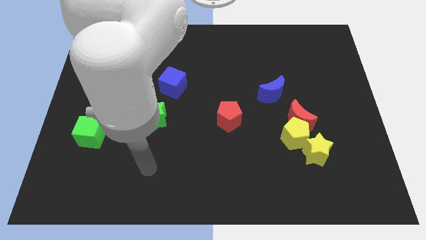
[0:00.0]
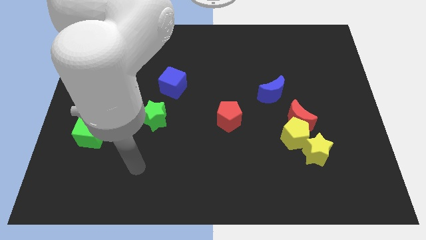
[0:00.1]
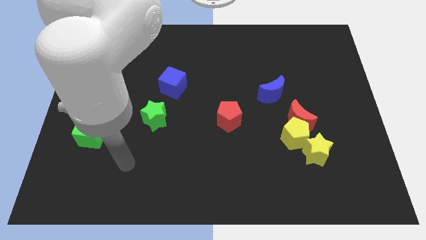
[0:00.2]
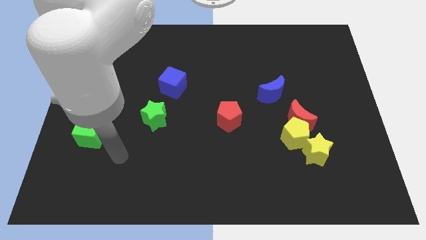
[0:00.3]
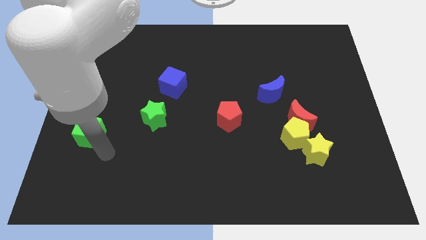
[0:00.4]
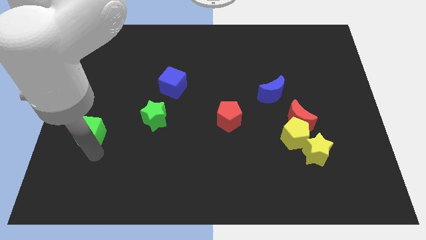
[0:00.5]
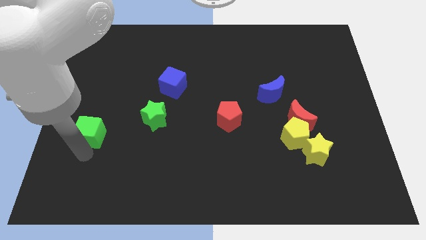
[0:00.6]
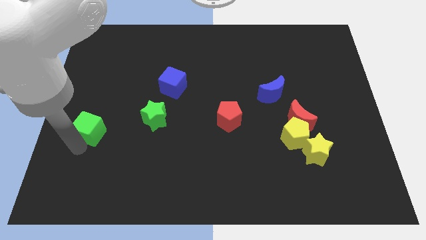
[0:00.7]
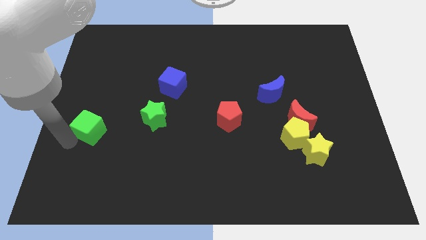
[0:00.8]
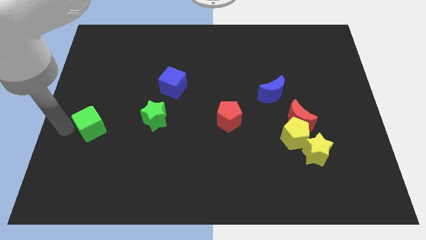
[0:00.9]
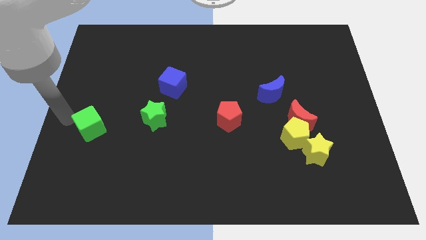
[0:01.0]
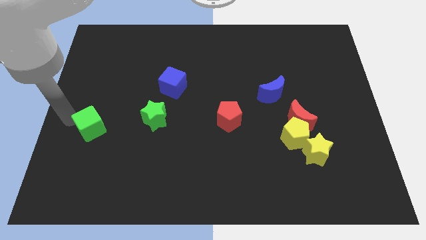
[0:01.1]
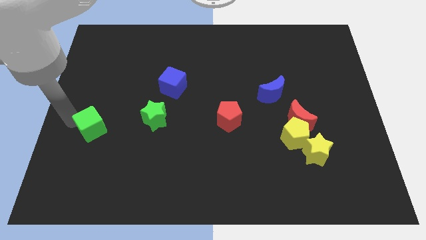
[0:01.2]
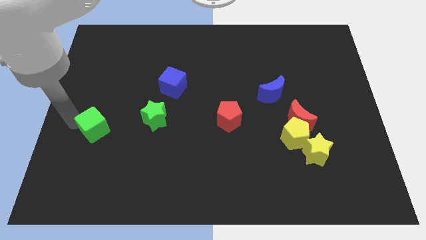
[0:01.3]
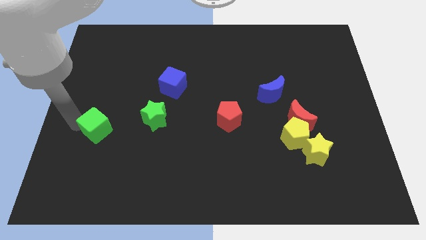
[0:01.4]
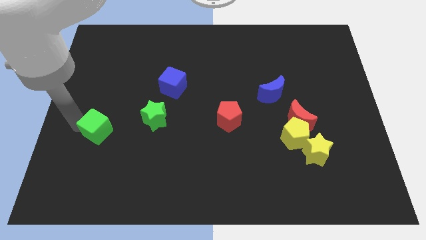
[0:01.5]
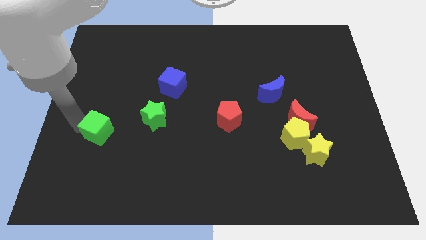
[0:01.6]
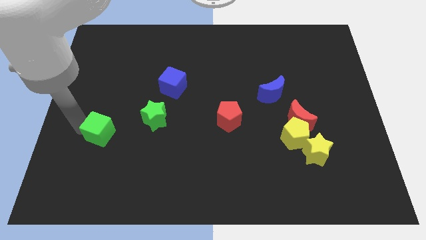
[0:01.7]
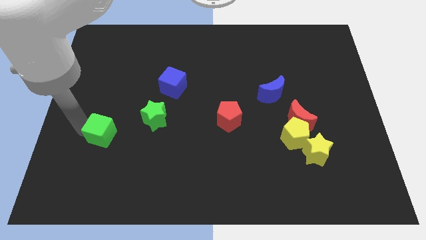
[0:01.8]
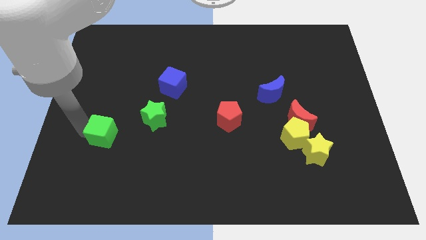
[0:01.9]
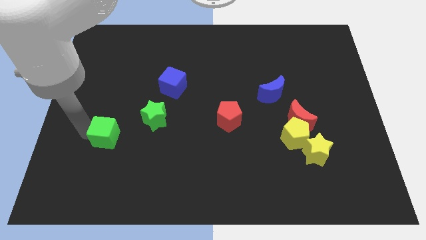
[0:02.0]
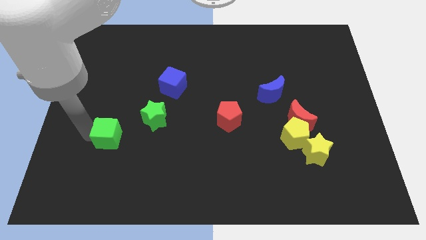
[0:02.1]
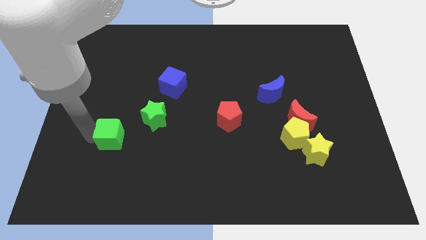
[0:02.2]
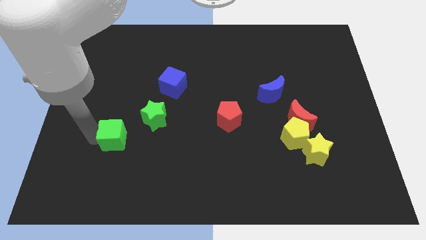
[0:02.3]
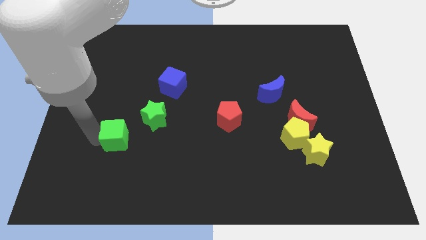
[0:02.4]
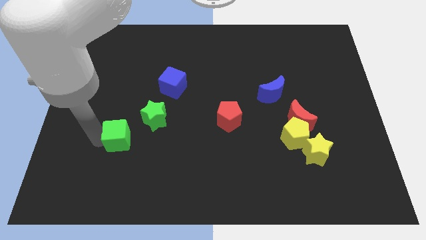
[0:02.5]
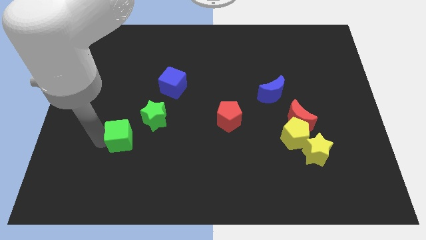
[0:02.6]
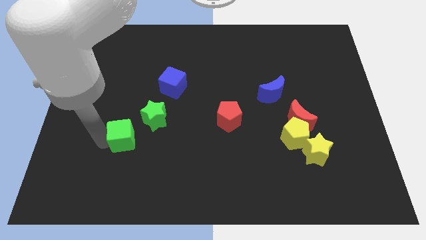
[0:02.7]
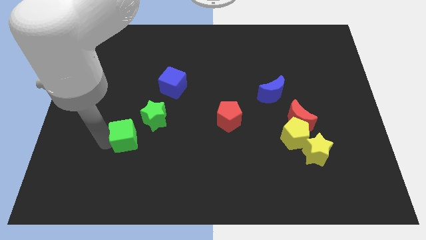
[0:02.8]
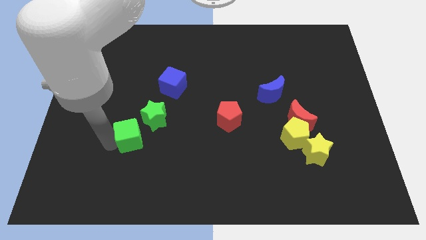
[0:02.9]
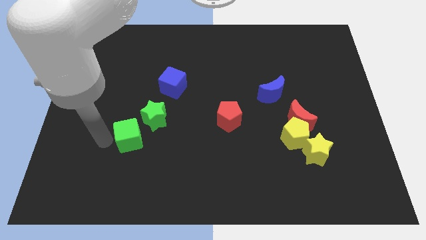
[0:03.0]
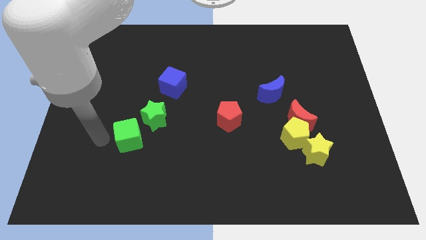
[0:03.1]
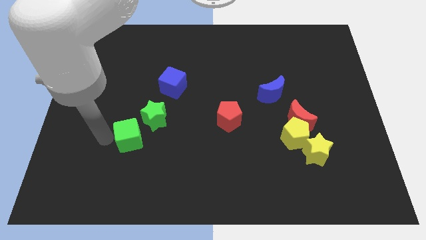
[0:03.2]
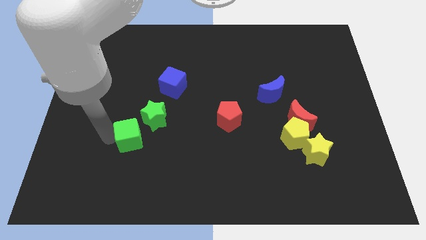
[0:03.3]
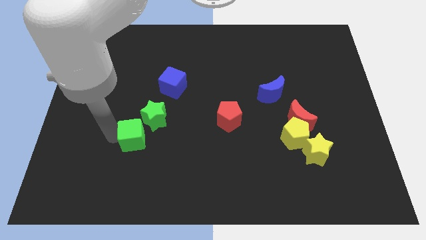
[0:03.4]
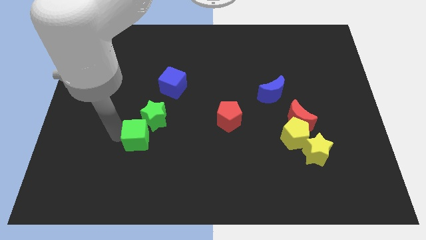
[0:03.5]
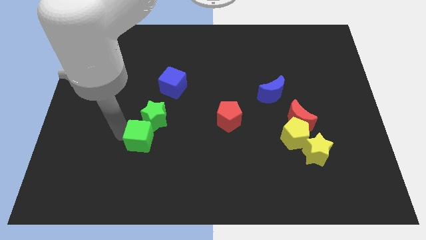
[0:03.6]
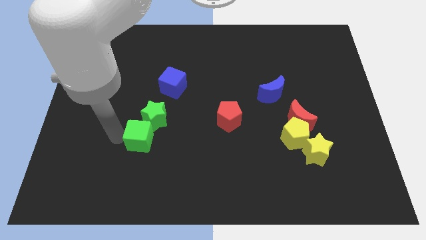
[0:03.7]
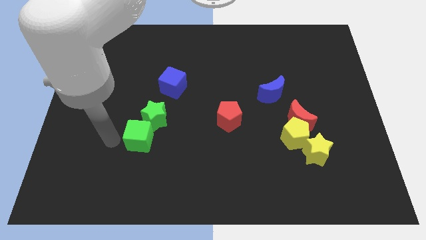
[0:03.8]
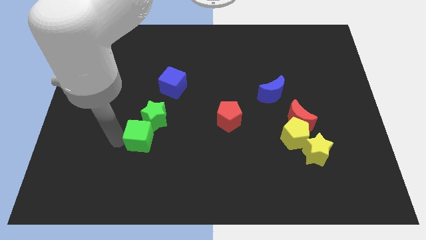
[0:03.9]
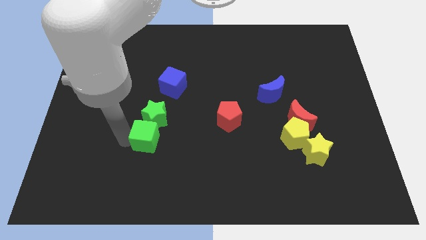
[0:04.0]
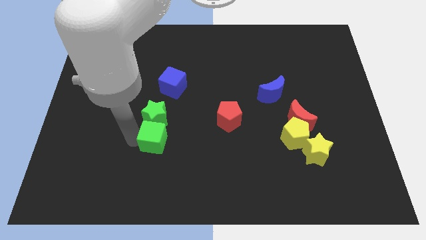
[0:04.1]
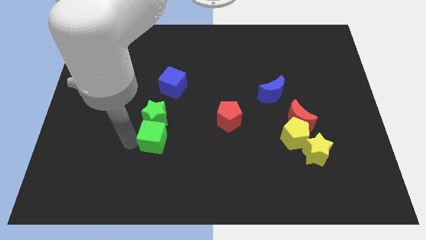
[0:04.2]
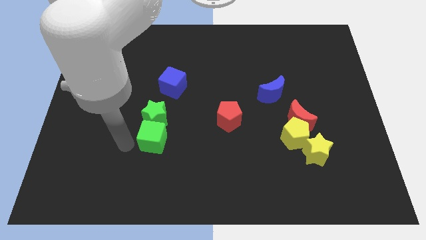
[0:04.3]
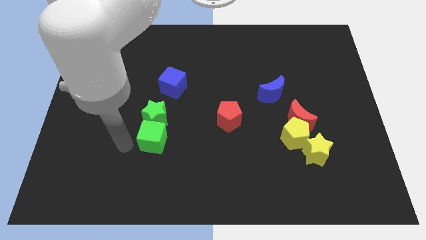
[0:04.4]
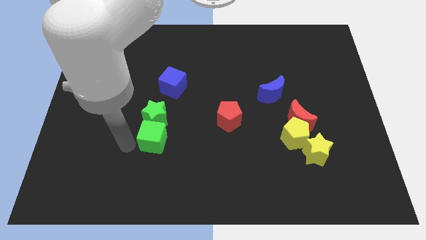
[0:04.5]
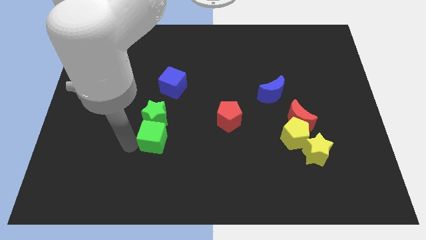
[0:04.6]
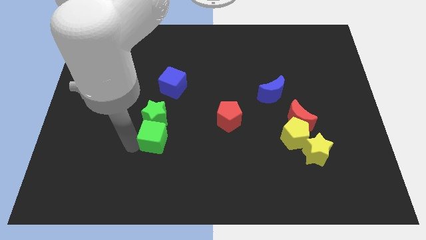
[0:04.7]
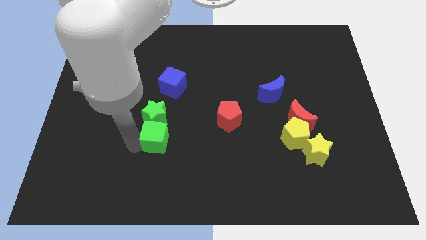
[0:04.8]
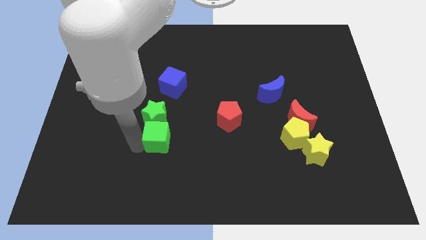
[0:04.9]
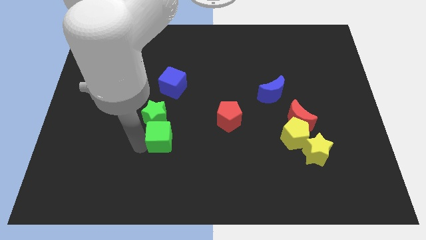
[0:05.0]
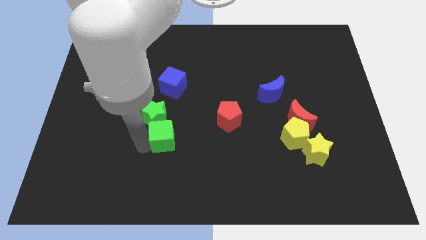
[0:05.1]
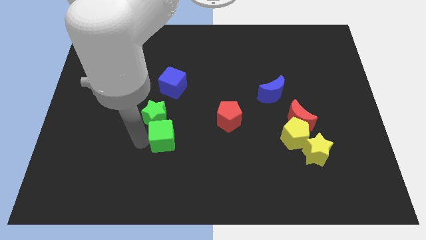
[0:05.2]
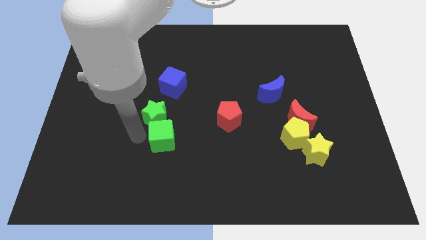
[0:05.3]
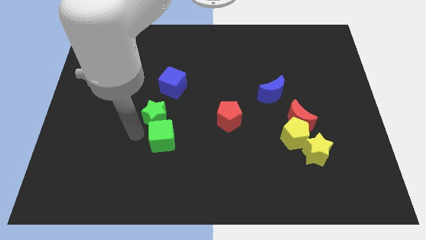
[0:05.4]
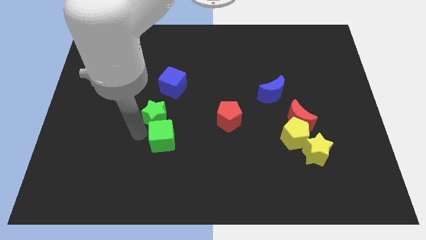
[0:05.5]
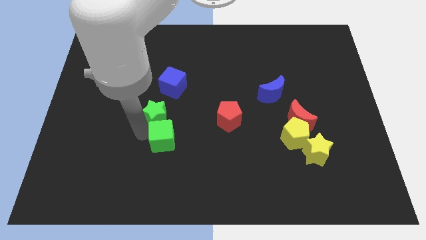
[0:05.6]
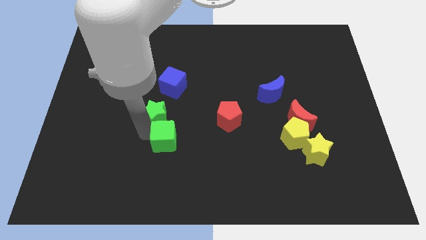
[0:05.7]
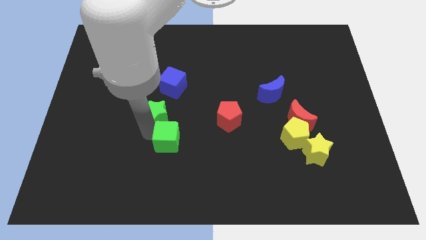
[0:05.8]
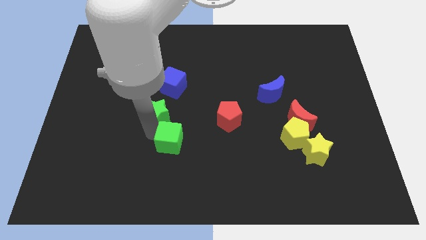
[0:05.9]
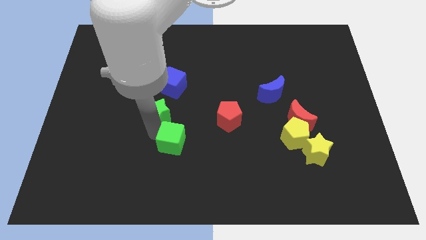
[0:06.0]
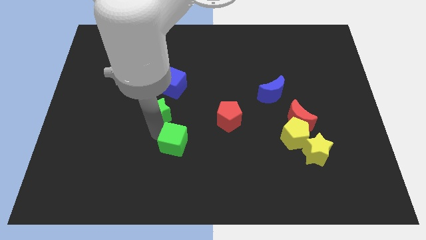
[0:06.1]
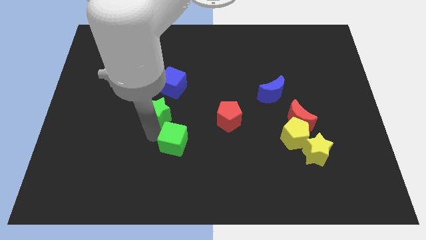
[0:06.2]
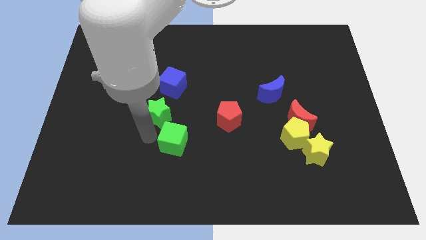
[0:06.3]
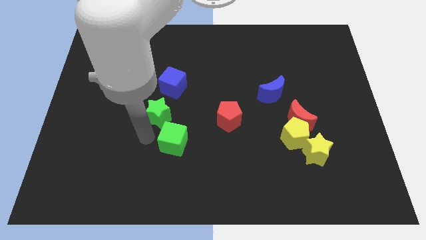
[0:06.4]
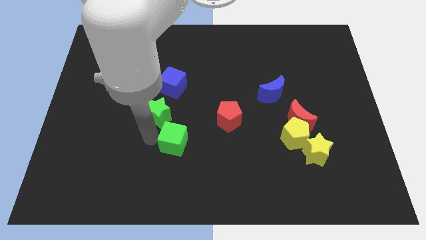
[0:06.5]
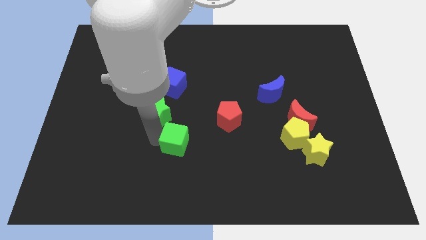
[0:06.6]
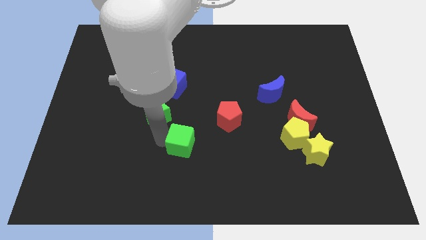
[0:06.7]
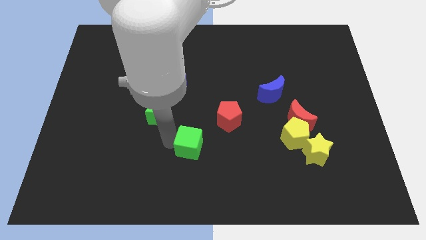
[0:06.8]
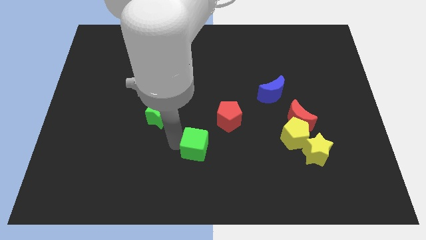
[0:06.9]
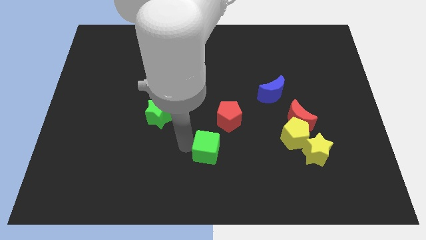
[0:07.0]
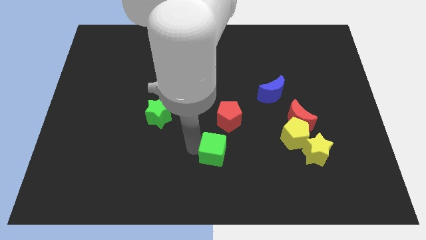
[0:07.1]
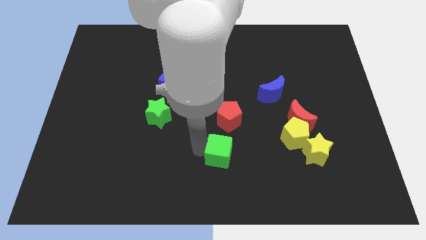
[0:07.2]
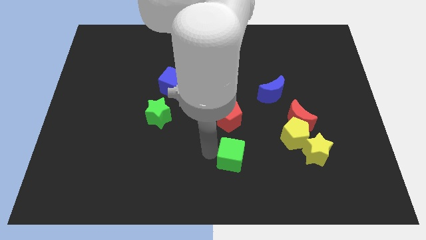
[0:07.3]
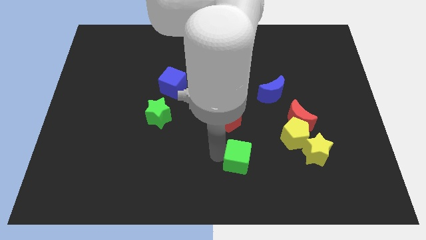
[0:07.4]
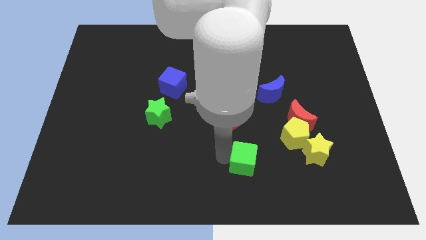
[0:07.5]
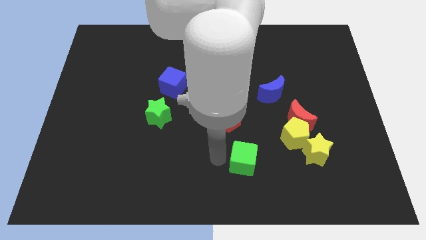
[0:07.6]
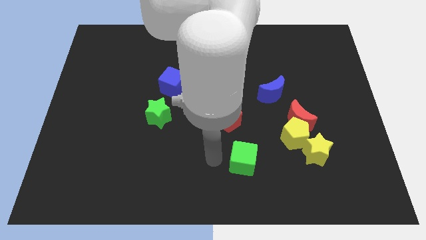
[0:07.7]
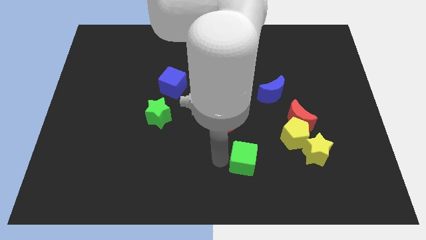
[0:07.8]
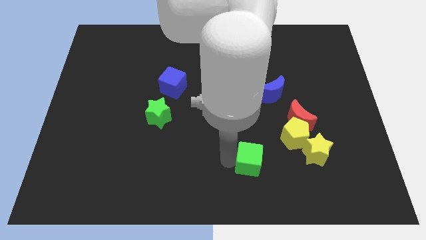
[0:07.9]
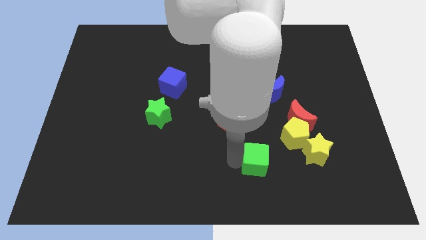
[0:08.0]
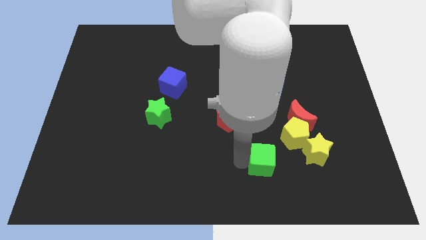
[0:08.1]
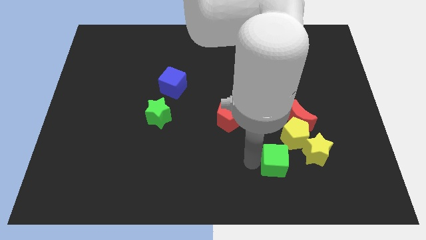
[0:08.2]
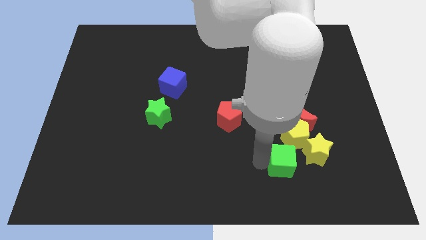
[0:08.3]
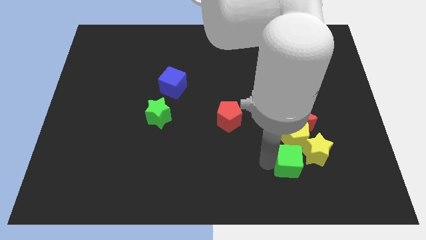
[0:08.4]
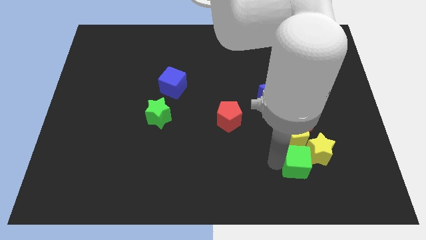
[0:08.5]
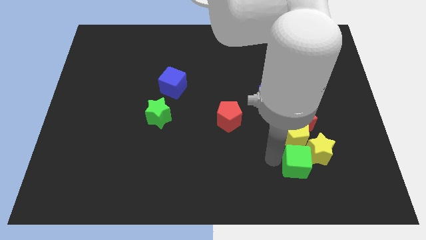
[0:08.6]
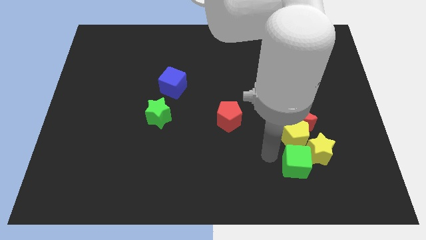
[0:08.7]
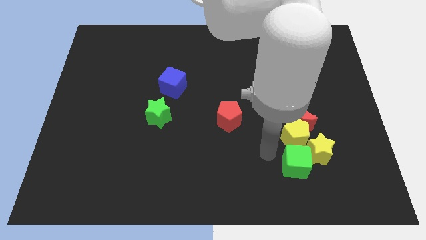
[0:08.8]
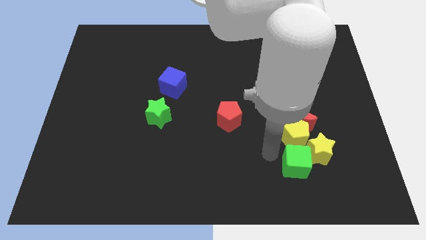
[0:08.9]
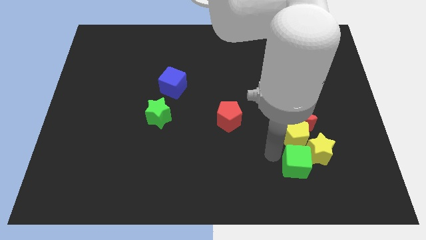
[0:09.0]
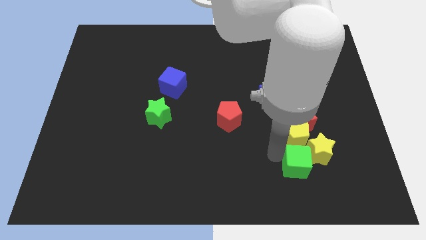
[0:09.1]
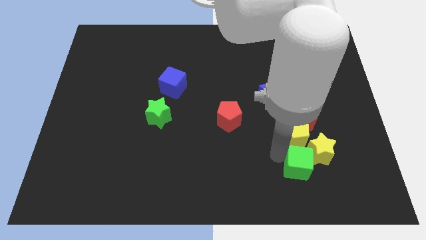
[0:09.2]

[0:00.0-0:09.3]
push the green cube to the bottom right side of the yellow pentagon
